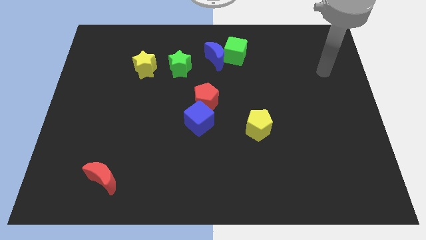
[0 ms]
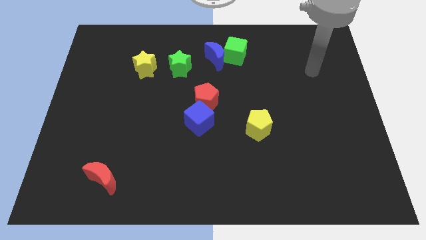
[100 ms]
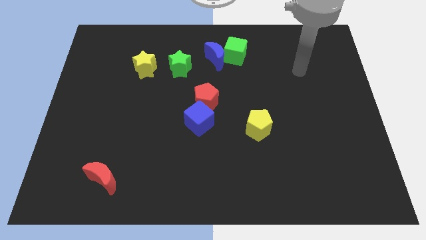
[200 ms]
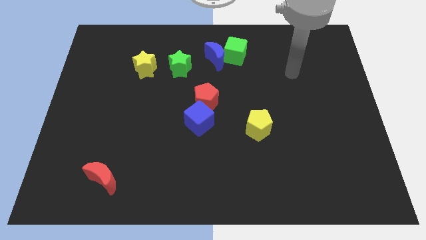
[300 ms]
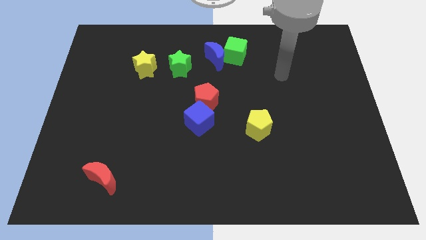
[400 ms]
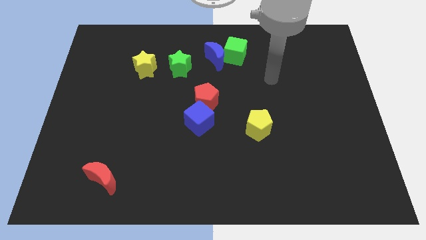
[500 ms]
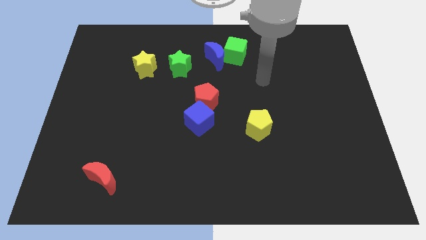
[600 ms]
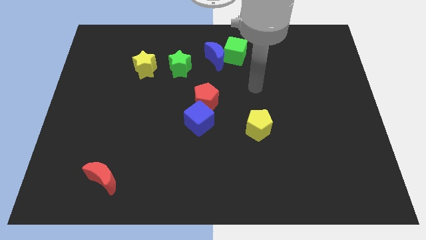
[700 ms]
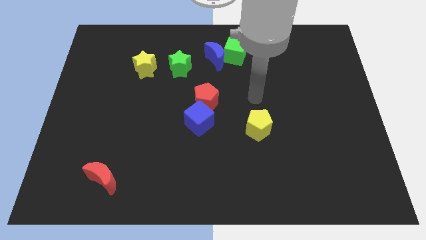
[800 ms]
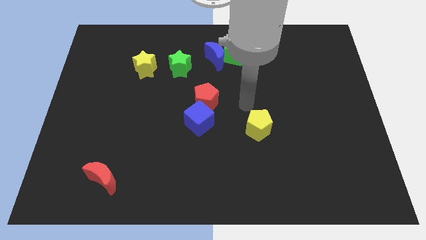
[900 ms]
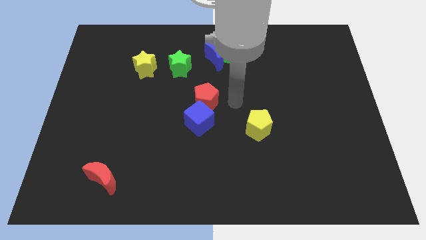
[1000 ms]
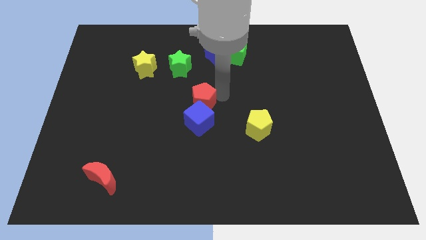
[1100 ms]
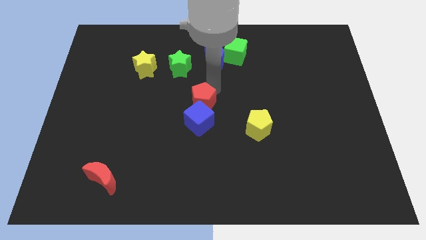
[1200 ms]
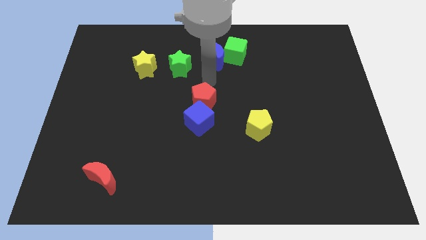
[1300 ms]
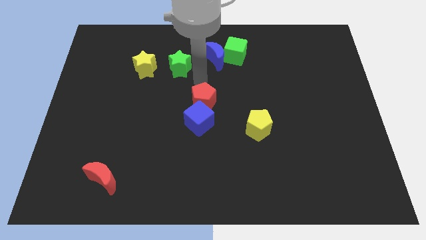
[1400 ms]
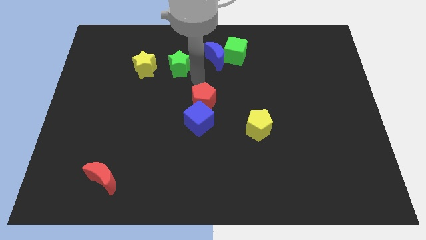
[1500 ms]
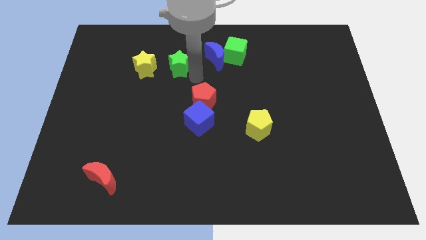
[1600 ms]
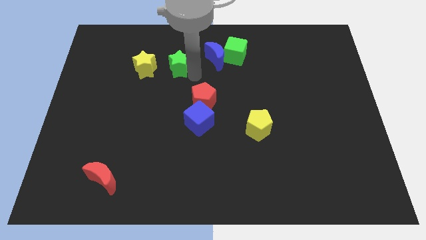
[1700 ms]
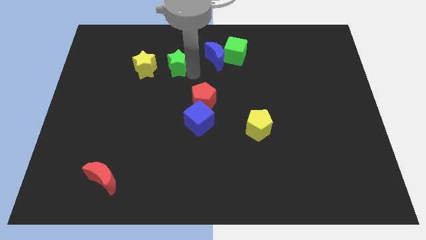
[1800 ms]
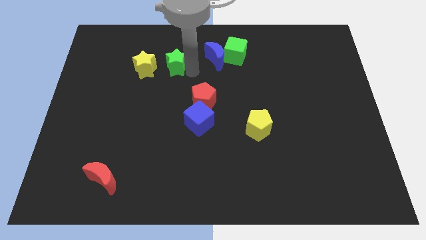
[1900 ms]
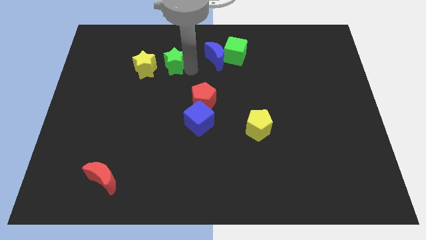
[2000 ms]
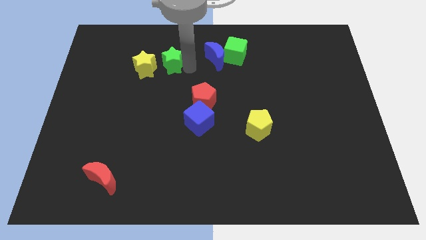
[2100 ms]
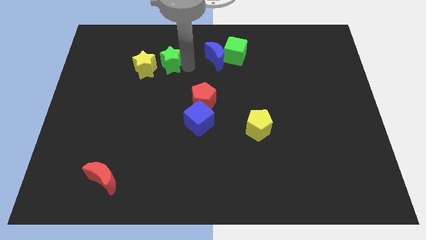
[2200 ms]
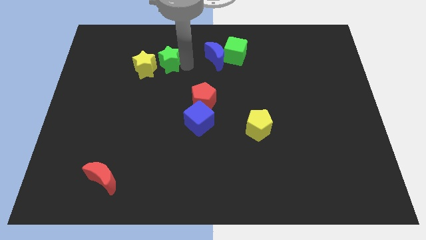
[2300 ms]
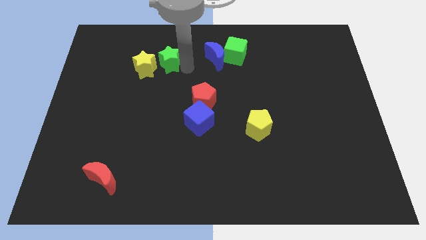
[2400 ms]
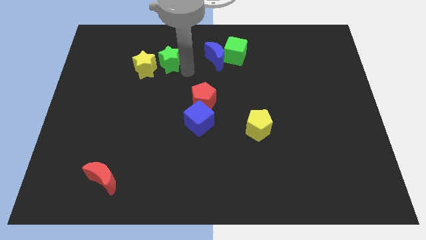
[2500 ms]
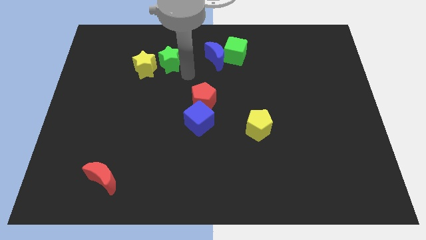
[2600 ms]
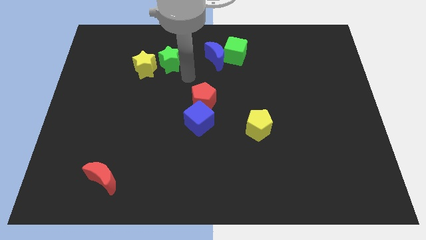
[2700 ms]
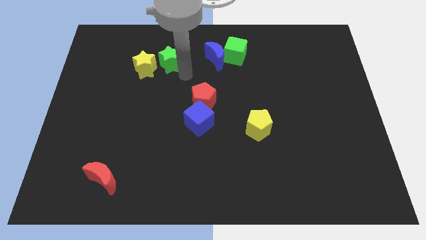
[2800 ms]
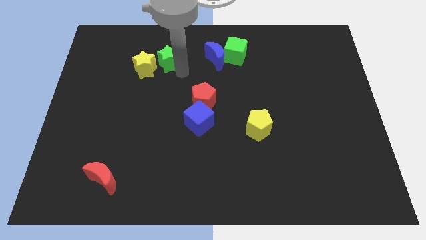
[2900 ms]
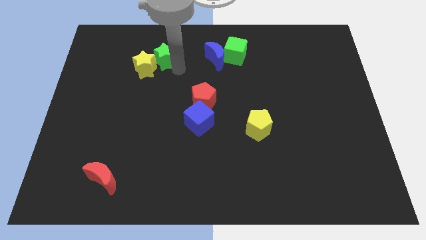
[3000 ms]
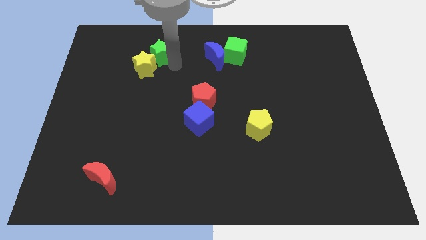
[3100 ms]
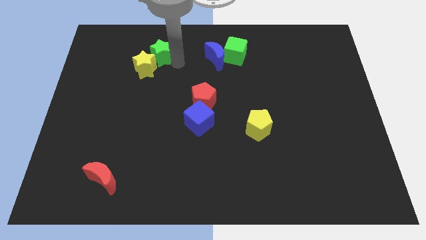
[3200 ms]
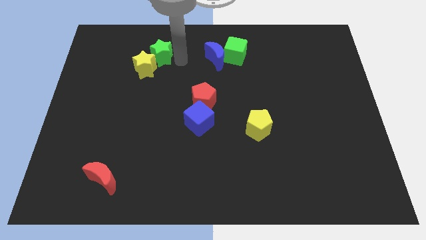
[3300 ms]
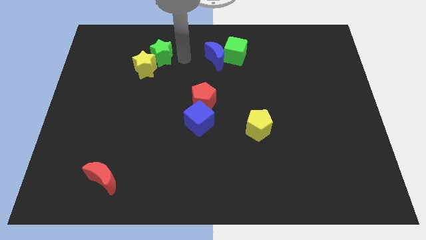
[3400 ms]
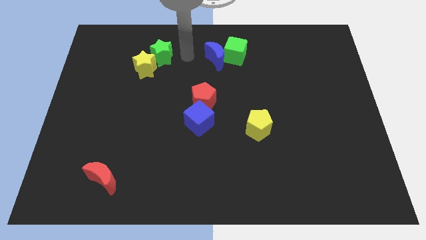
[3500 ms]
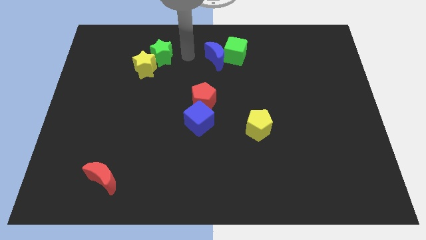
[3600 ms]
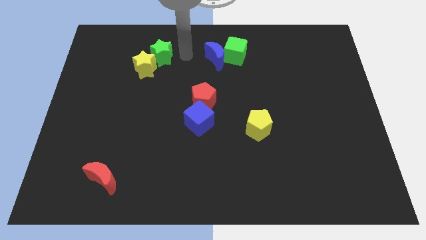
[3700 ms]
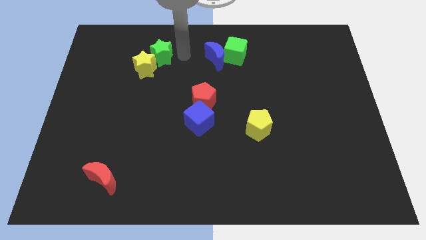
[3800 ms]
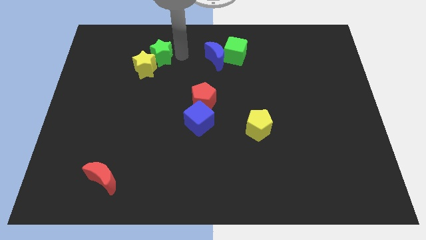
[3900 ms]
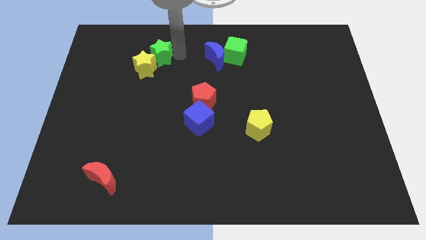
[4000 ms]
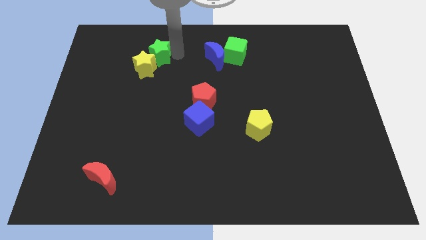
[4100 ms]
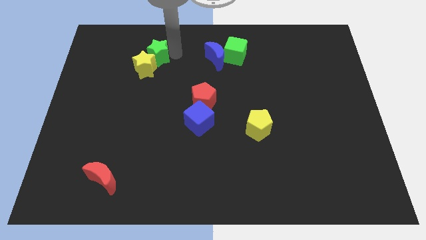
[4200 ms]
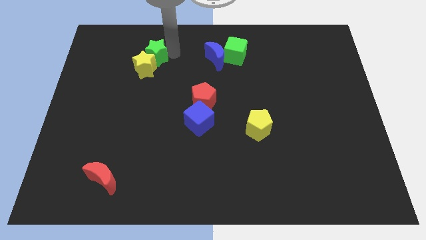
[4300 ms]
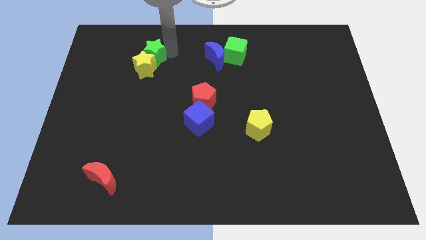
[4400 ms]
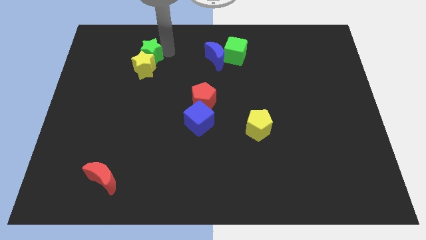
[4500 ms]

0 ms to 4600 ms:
slightly move the green star to the left

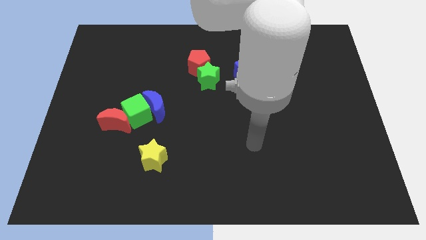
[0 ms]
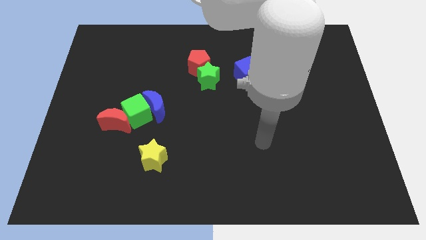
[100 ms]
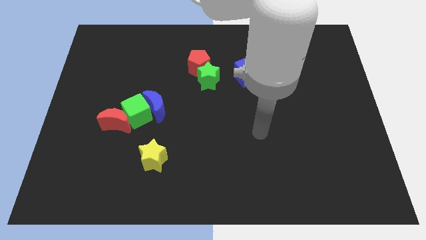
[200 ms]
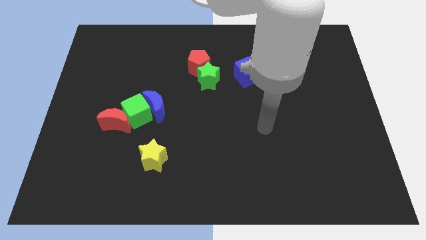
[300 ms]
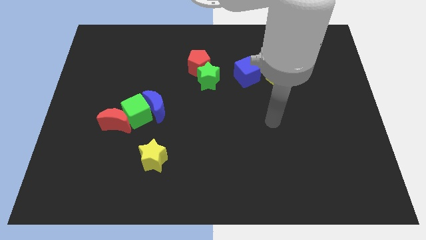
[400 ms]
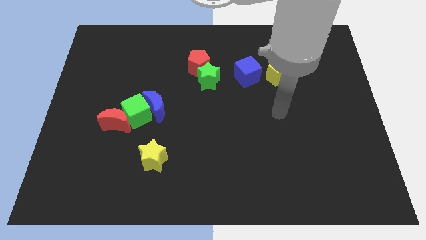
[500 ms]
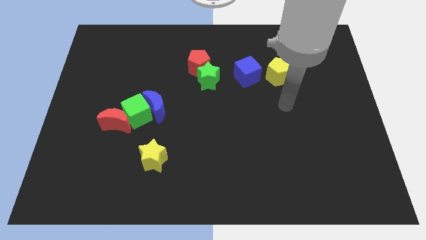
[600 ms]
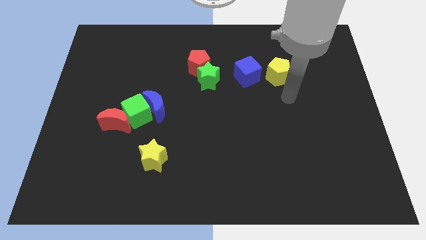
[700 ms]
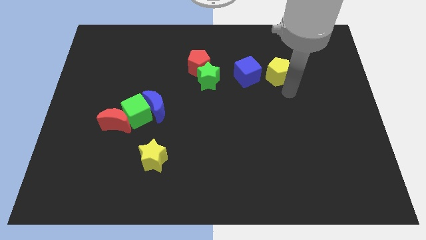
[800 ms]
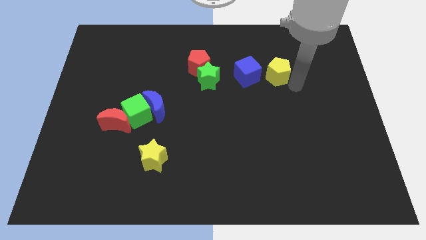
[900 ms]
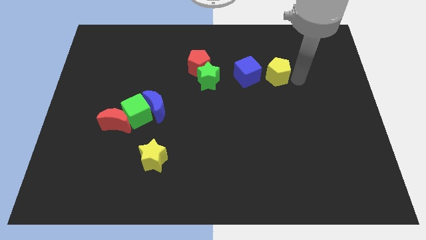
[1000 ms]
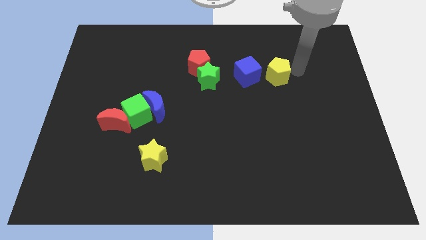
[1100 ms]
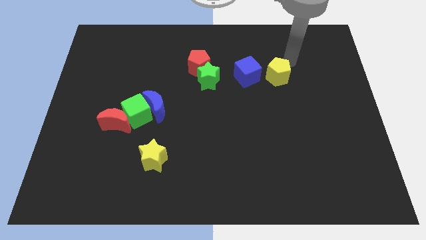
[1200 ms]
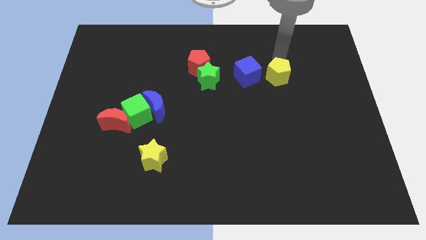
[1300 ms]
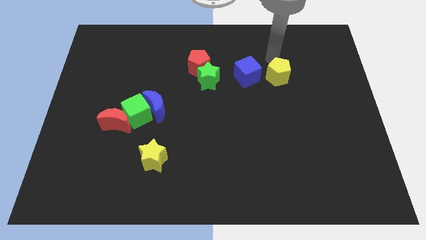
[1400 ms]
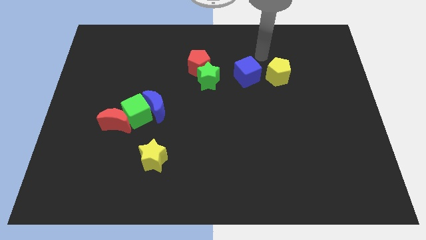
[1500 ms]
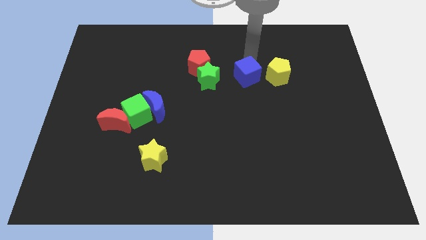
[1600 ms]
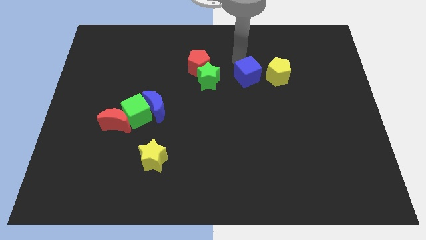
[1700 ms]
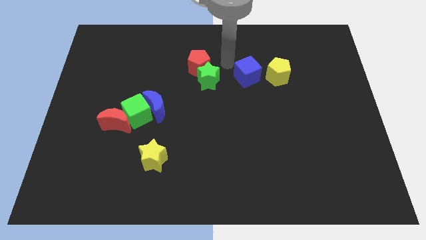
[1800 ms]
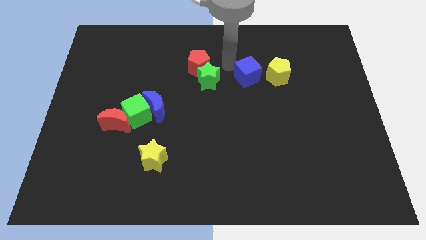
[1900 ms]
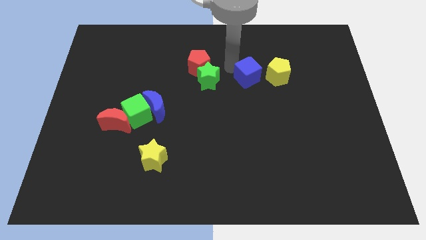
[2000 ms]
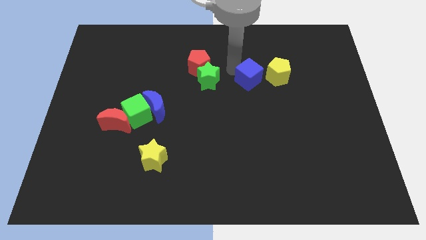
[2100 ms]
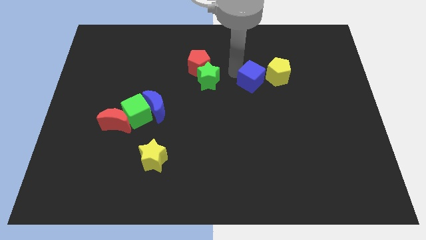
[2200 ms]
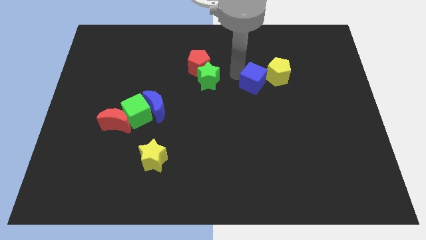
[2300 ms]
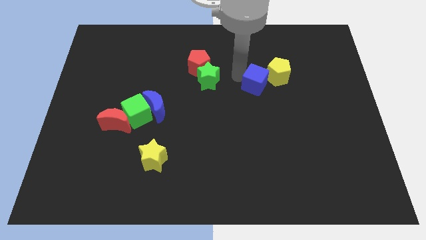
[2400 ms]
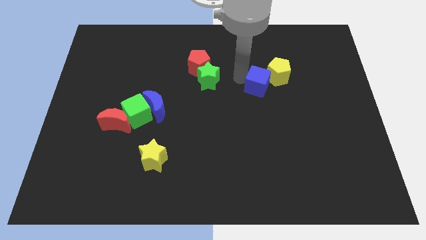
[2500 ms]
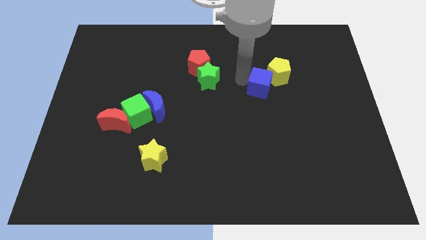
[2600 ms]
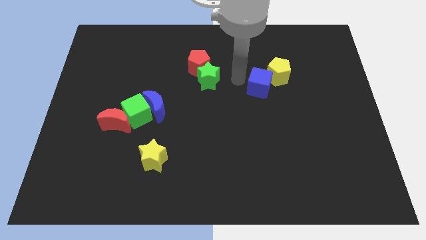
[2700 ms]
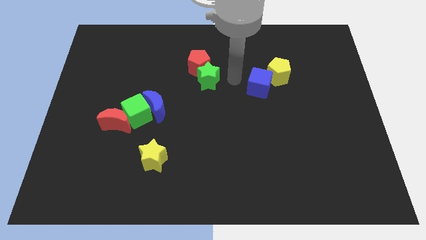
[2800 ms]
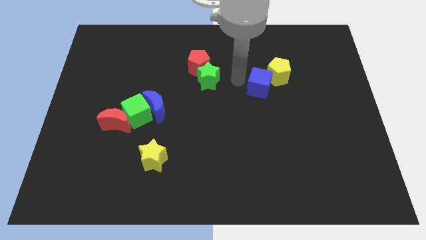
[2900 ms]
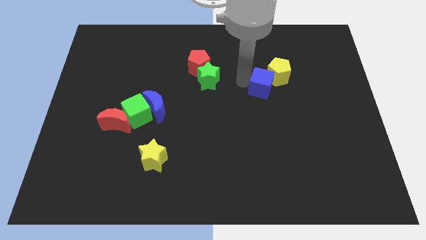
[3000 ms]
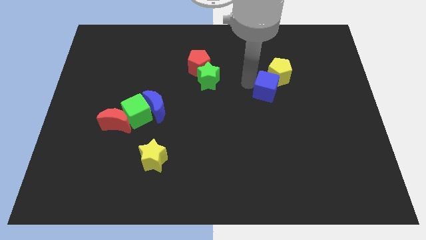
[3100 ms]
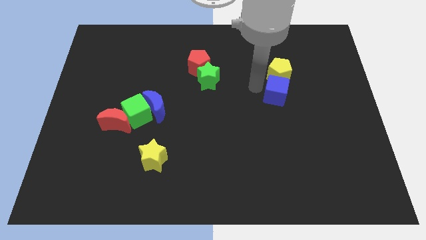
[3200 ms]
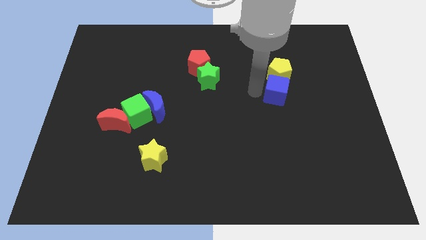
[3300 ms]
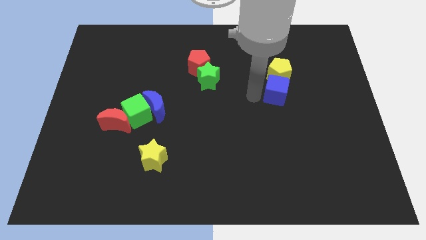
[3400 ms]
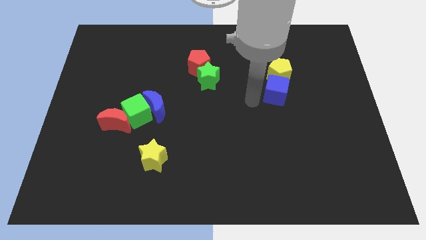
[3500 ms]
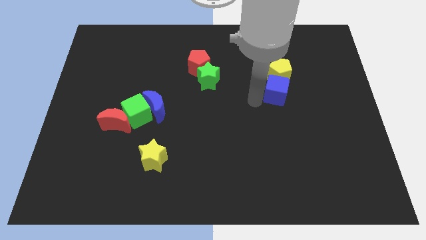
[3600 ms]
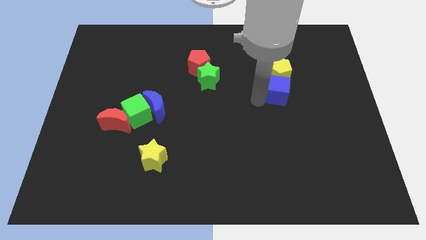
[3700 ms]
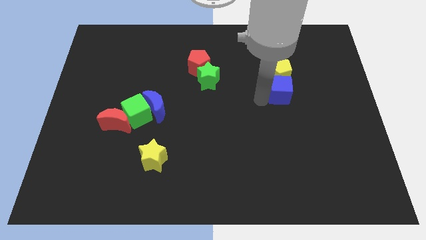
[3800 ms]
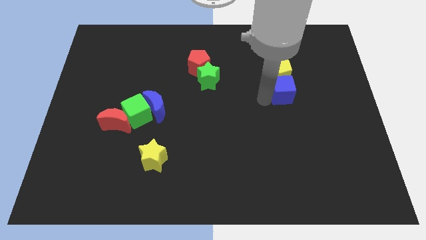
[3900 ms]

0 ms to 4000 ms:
slightly slide the blue cube to the right
